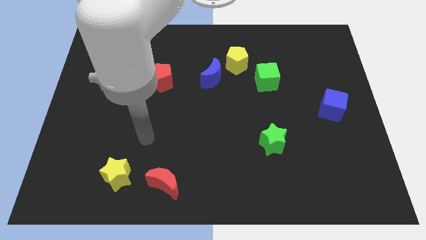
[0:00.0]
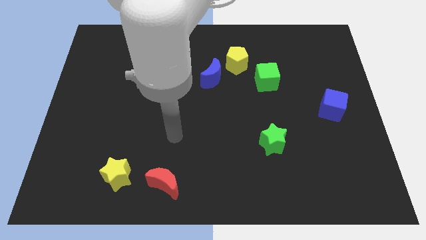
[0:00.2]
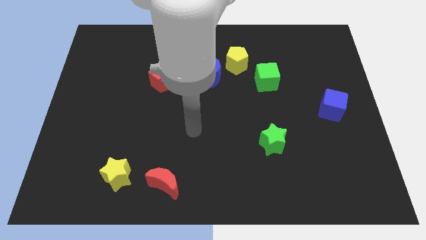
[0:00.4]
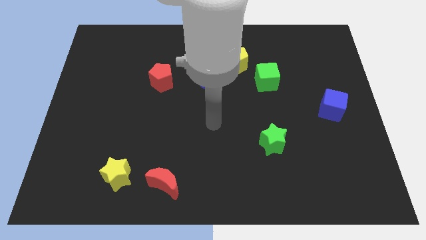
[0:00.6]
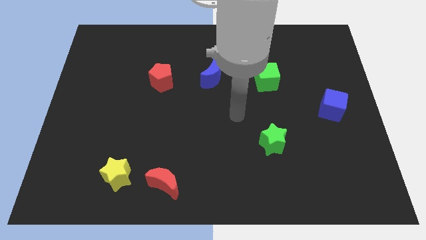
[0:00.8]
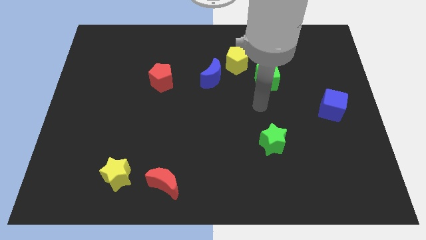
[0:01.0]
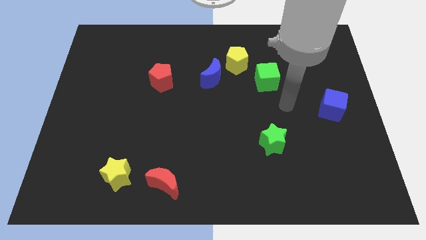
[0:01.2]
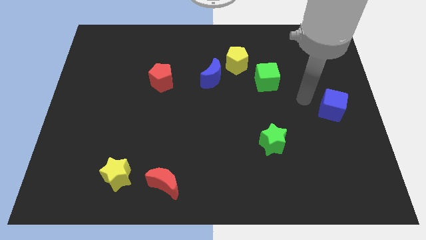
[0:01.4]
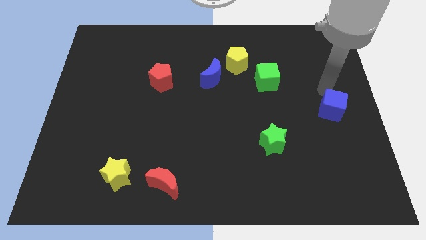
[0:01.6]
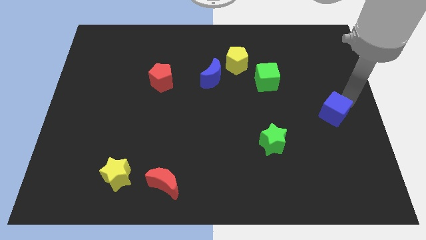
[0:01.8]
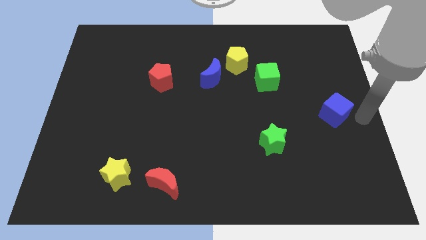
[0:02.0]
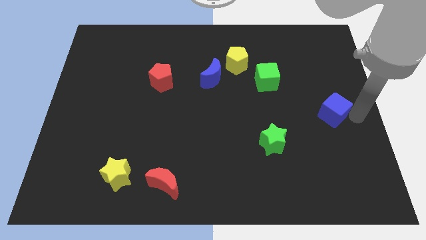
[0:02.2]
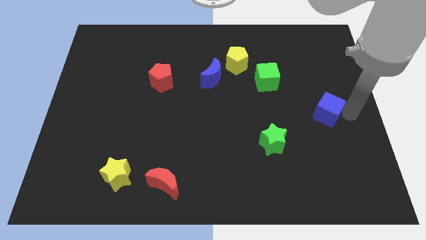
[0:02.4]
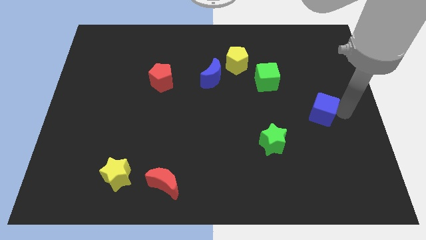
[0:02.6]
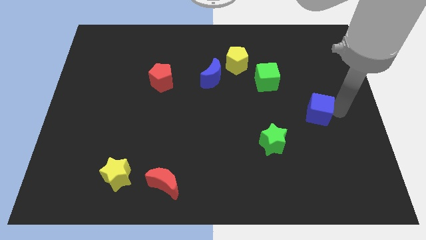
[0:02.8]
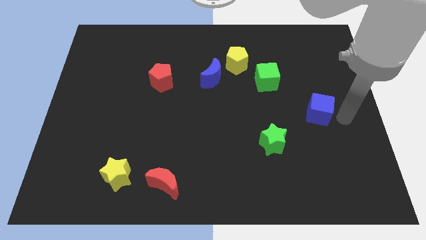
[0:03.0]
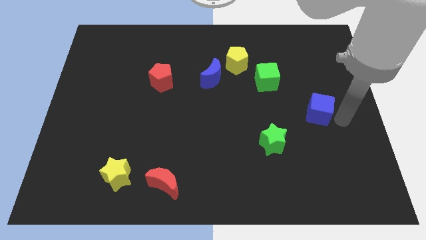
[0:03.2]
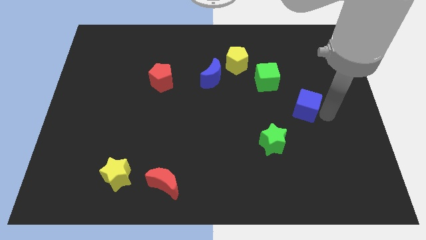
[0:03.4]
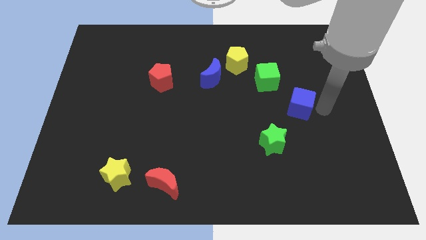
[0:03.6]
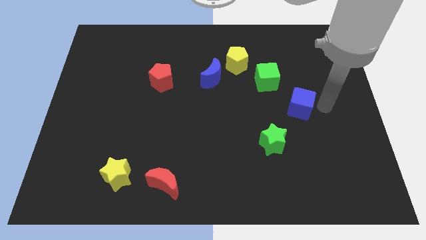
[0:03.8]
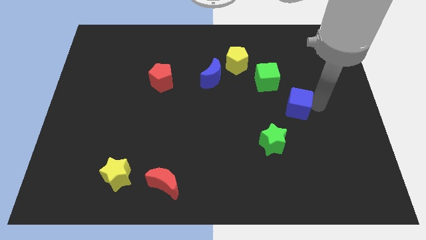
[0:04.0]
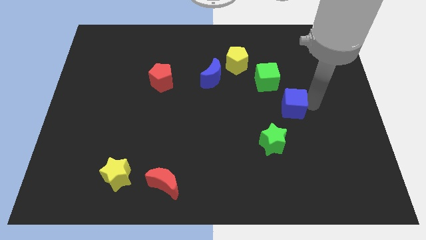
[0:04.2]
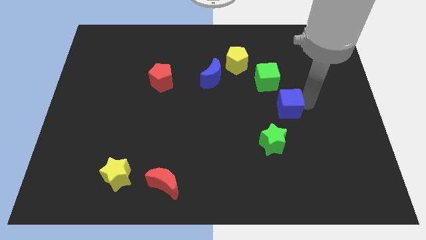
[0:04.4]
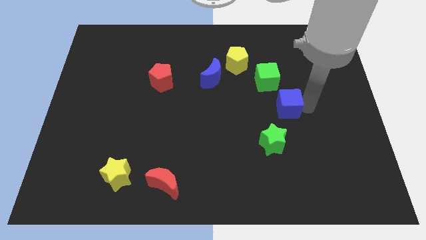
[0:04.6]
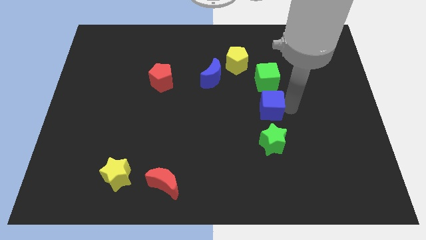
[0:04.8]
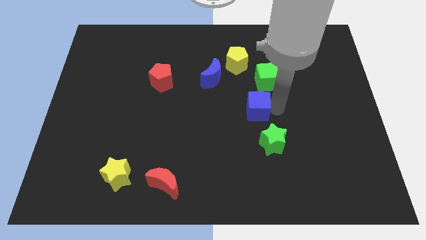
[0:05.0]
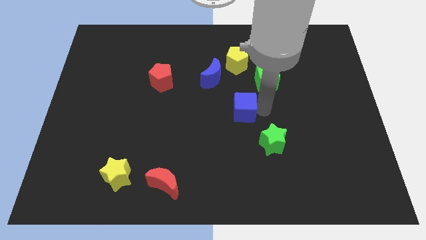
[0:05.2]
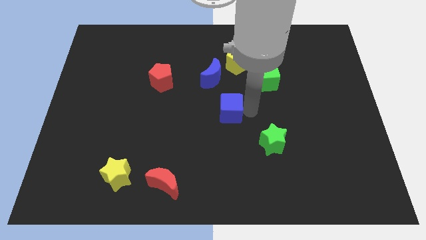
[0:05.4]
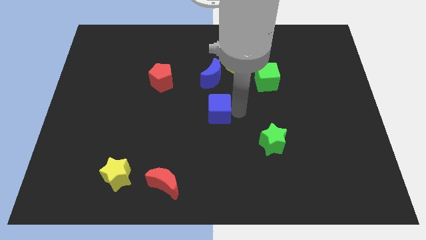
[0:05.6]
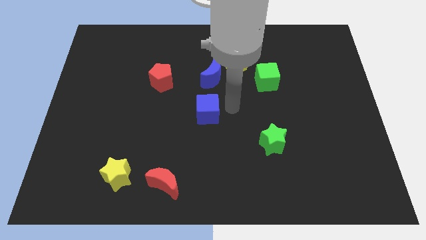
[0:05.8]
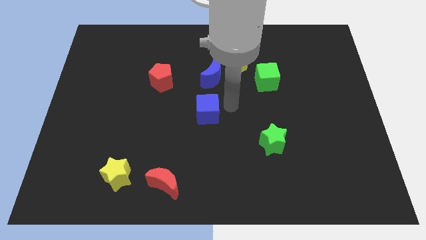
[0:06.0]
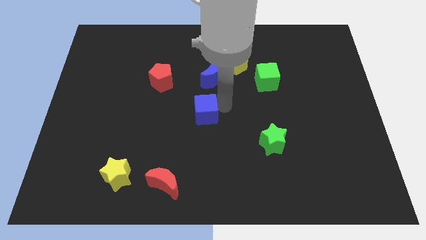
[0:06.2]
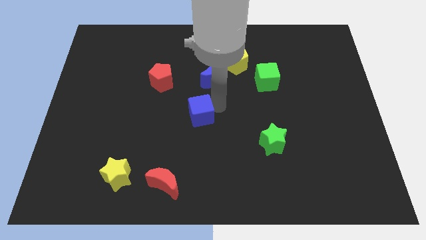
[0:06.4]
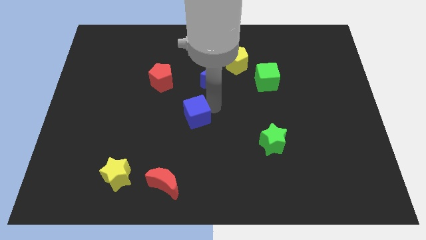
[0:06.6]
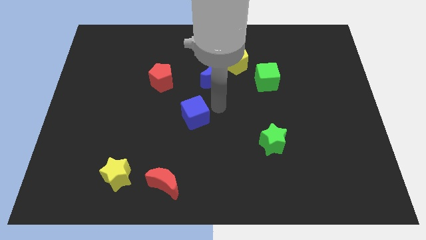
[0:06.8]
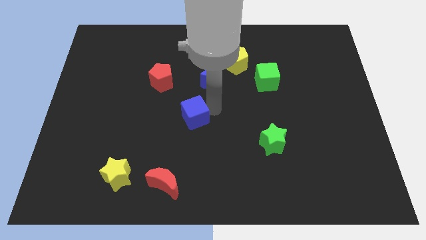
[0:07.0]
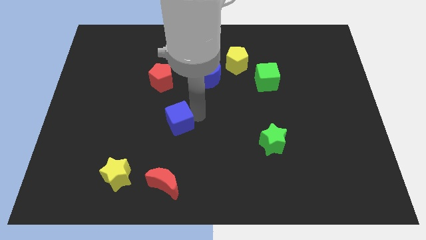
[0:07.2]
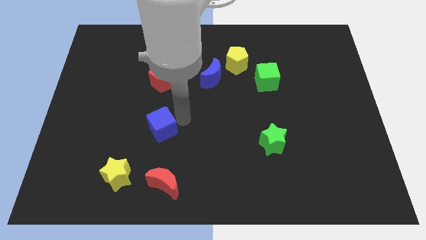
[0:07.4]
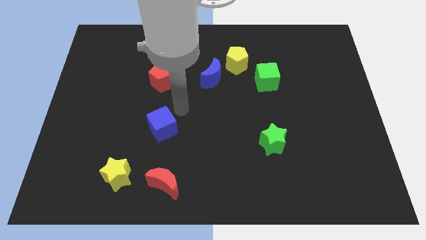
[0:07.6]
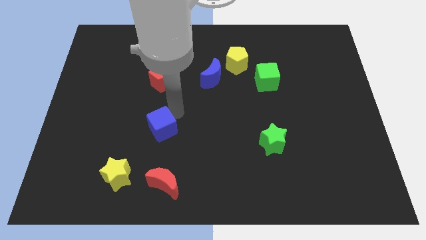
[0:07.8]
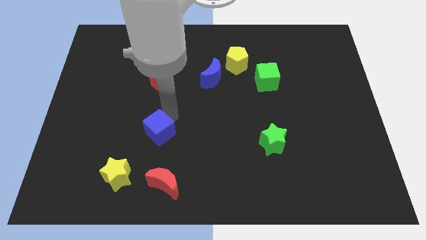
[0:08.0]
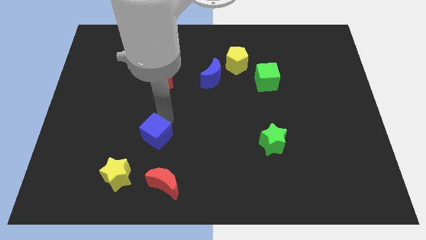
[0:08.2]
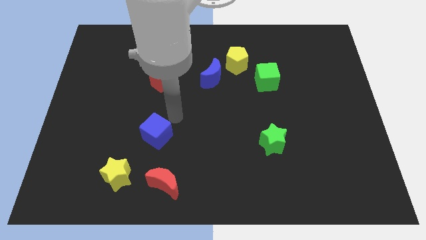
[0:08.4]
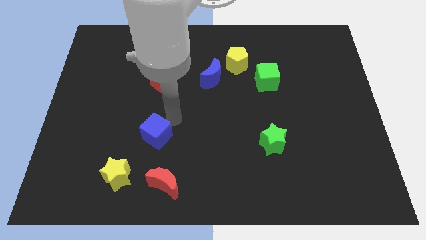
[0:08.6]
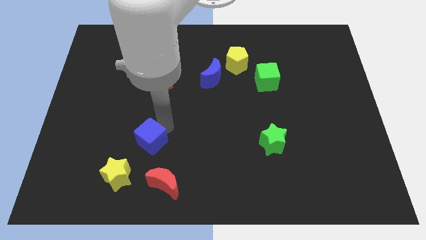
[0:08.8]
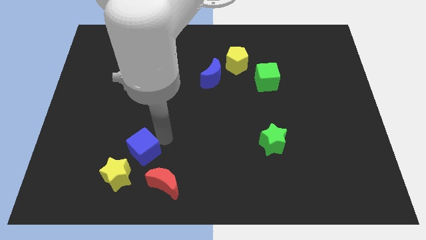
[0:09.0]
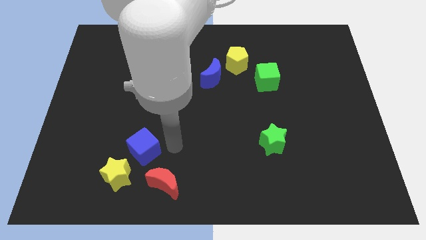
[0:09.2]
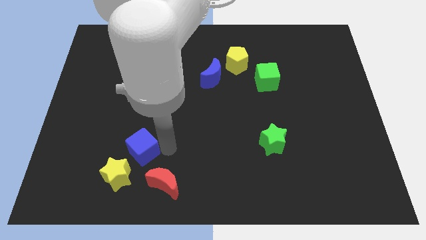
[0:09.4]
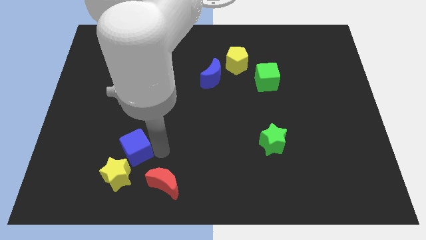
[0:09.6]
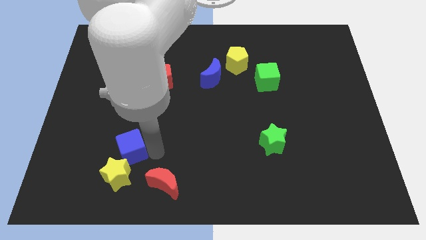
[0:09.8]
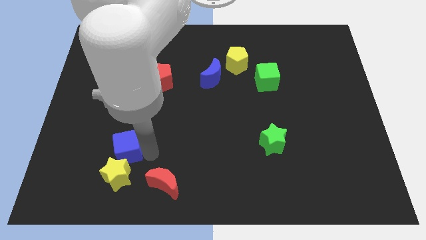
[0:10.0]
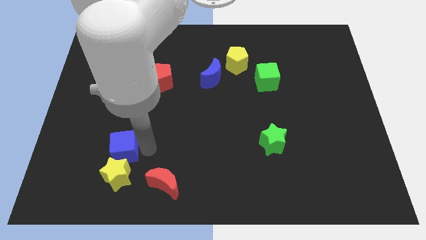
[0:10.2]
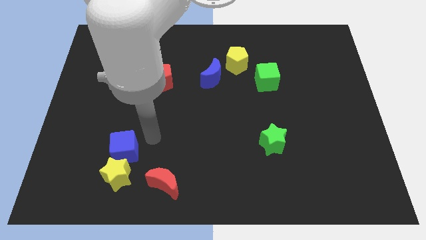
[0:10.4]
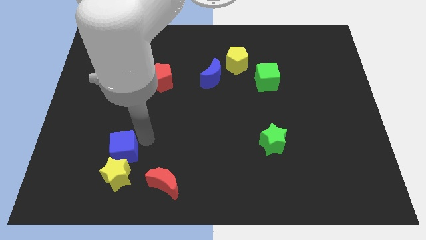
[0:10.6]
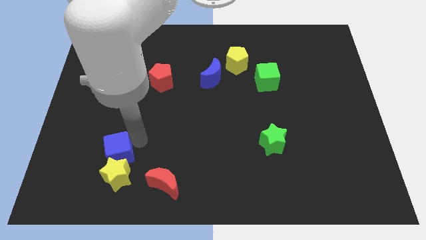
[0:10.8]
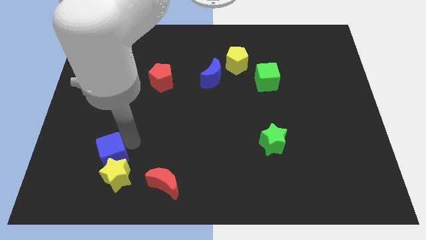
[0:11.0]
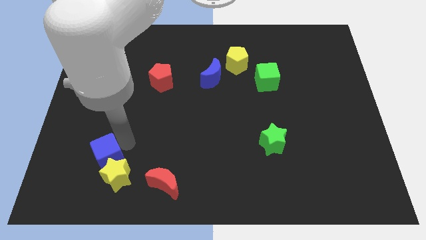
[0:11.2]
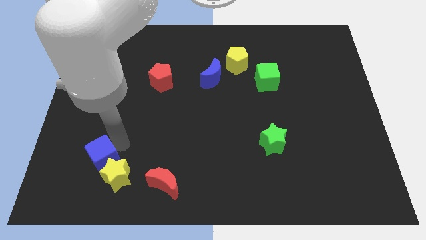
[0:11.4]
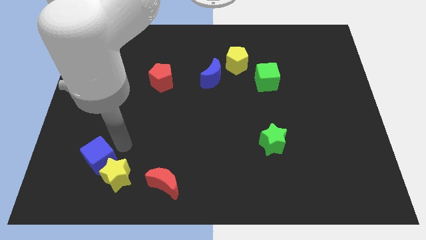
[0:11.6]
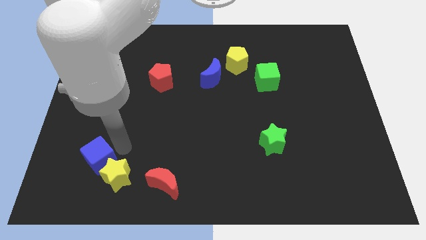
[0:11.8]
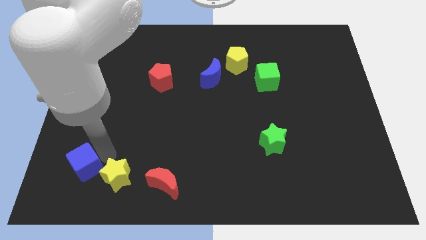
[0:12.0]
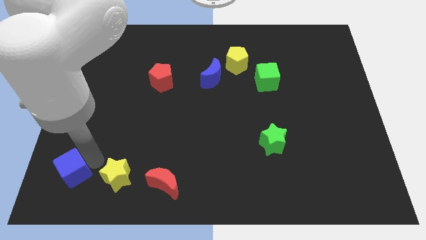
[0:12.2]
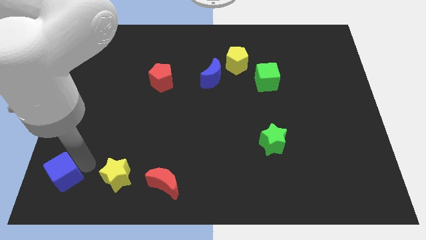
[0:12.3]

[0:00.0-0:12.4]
put the blue cube to the bottom left of the board
